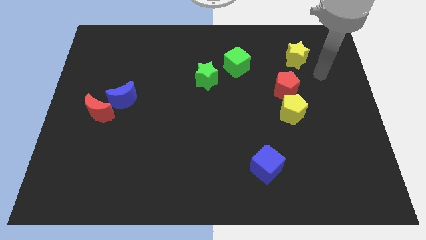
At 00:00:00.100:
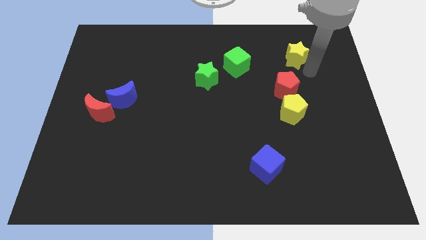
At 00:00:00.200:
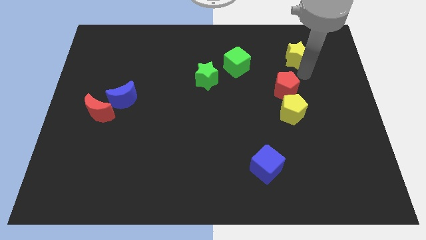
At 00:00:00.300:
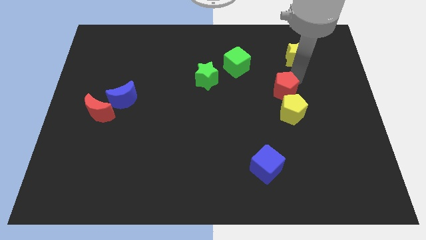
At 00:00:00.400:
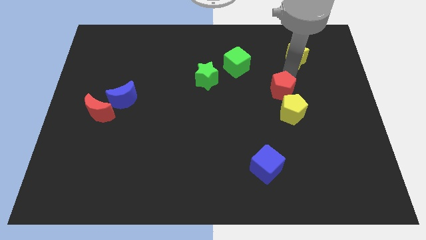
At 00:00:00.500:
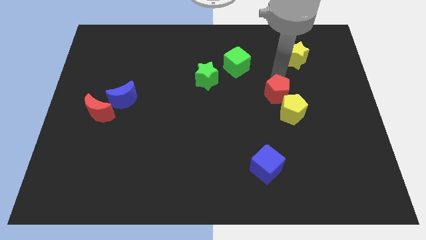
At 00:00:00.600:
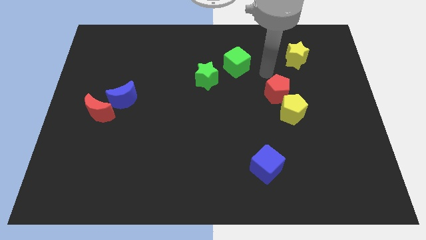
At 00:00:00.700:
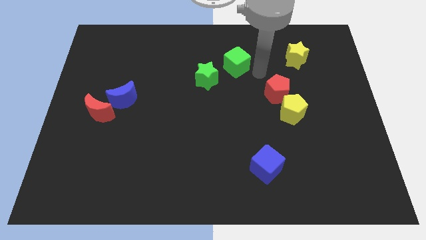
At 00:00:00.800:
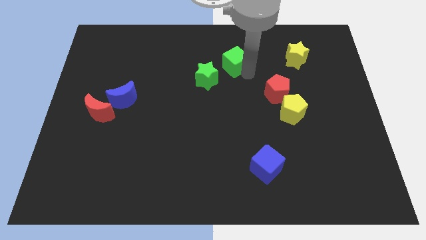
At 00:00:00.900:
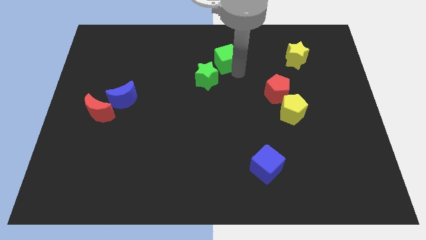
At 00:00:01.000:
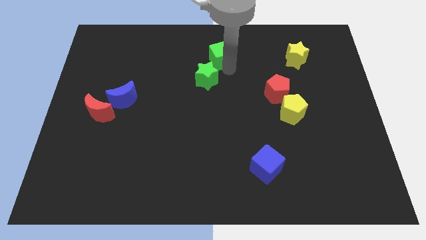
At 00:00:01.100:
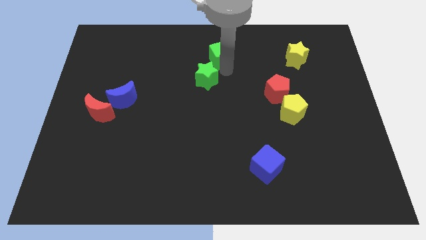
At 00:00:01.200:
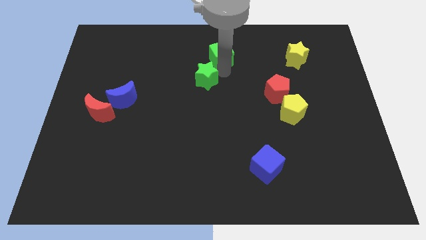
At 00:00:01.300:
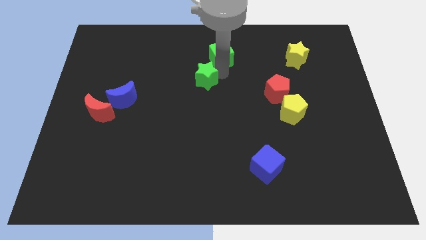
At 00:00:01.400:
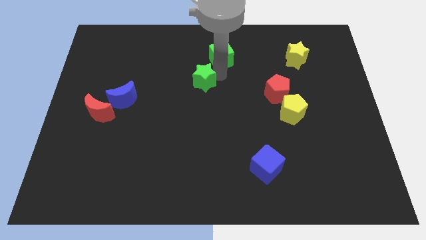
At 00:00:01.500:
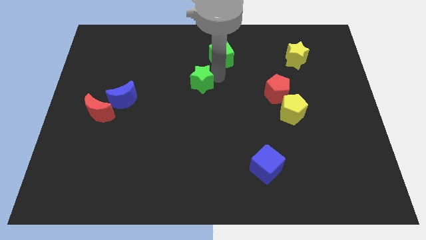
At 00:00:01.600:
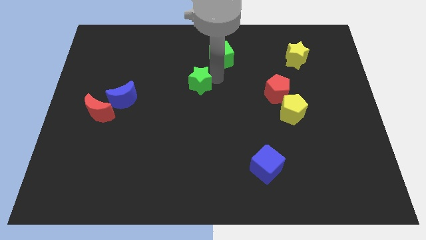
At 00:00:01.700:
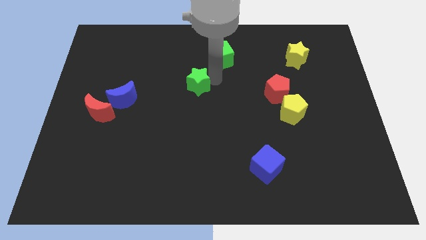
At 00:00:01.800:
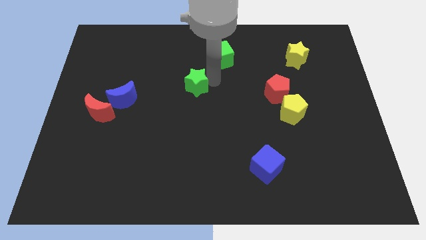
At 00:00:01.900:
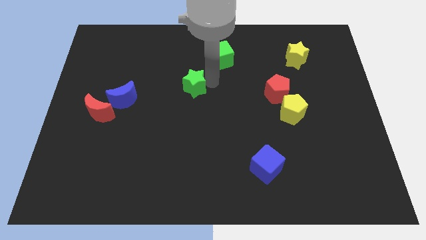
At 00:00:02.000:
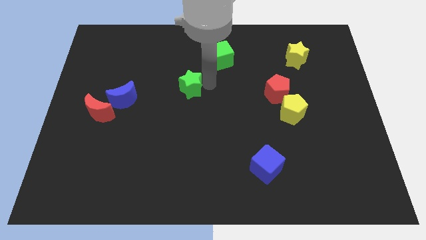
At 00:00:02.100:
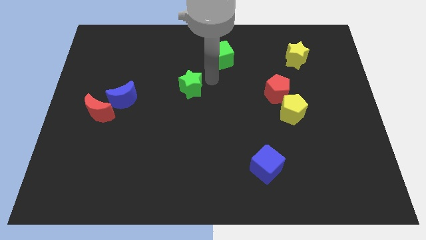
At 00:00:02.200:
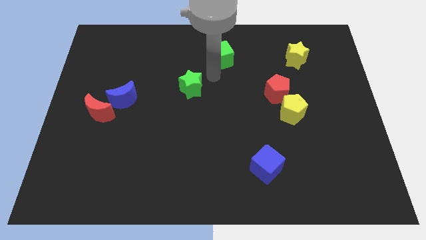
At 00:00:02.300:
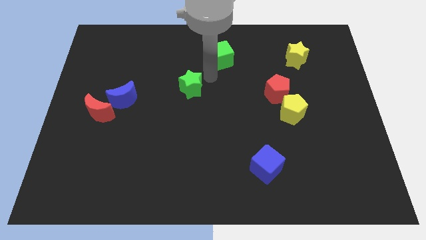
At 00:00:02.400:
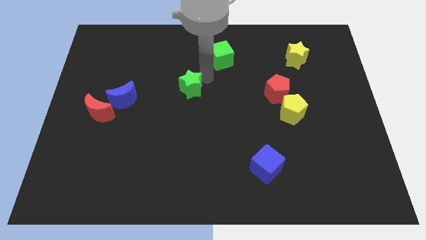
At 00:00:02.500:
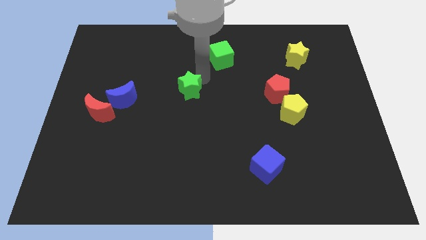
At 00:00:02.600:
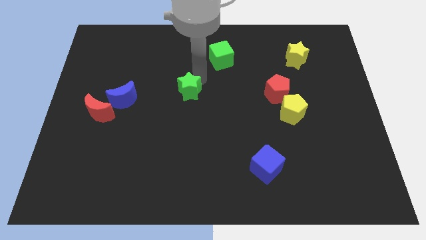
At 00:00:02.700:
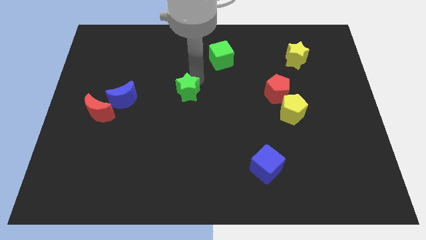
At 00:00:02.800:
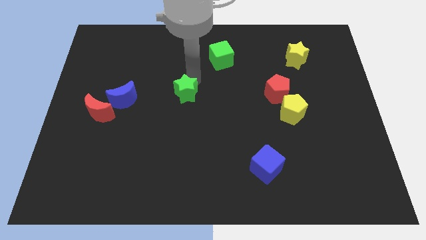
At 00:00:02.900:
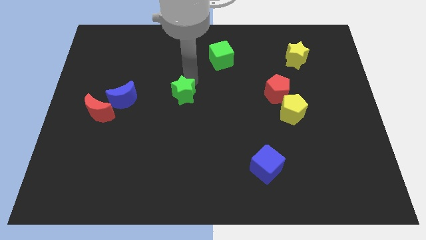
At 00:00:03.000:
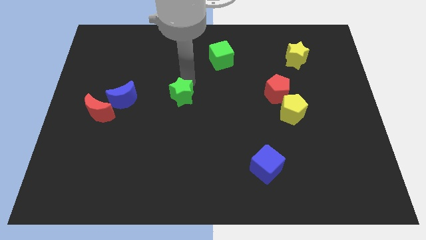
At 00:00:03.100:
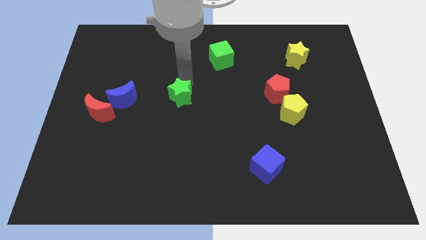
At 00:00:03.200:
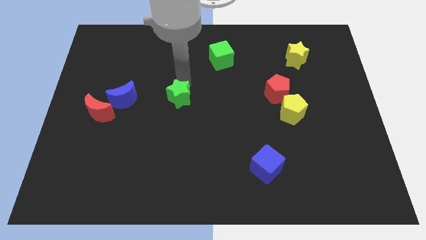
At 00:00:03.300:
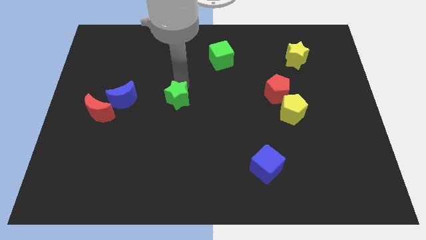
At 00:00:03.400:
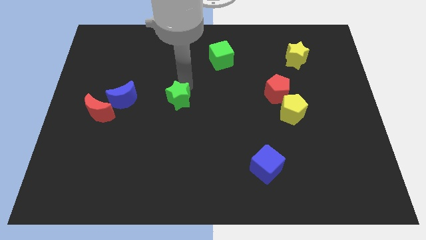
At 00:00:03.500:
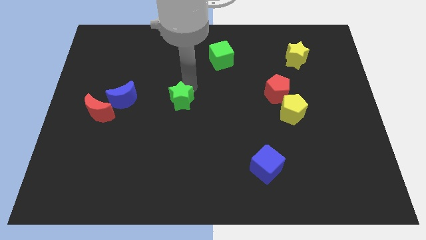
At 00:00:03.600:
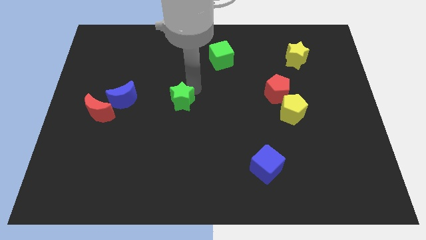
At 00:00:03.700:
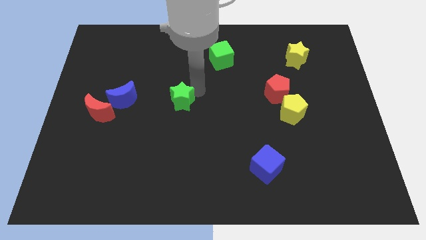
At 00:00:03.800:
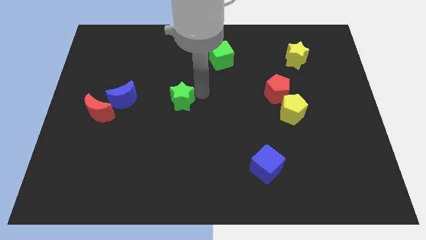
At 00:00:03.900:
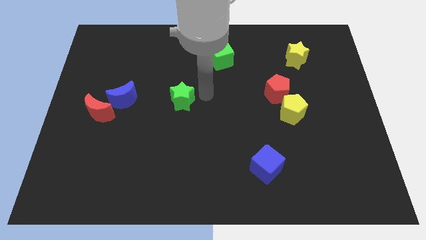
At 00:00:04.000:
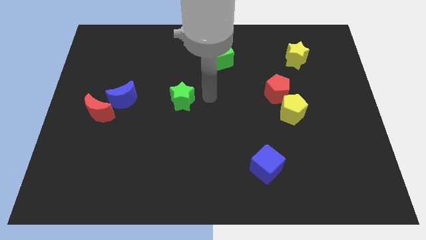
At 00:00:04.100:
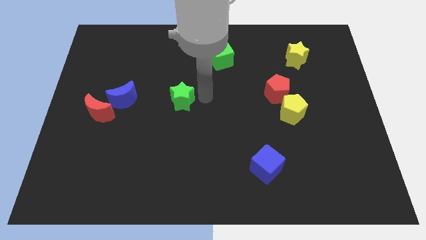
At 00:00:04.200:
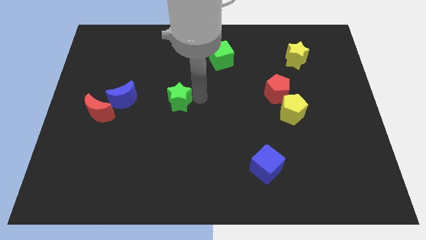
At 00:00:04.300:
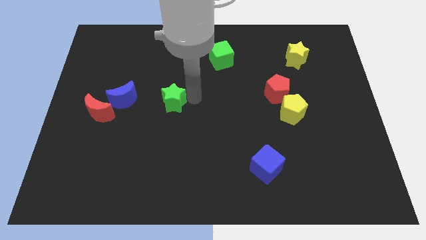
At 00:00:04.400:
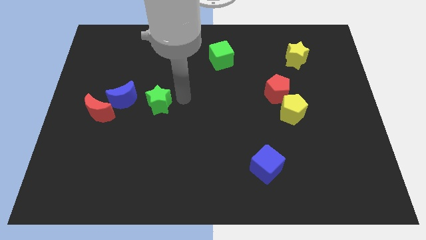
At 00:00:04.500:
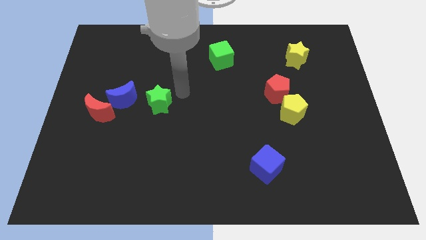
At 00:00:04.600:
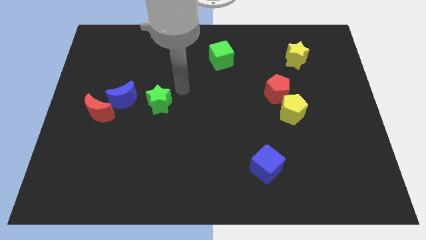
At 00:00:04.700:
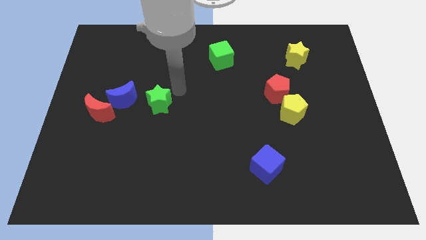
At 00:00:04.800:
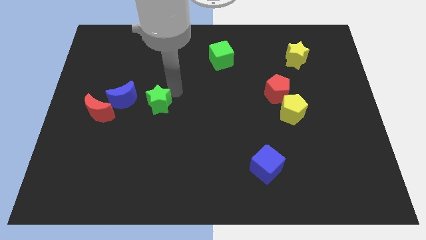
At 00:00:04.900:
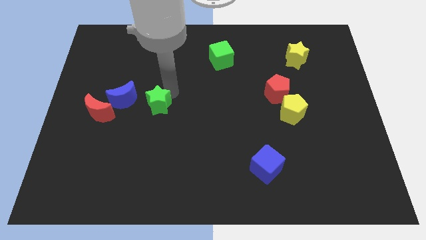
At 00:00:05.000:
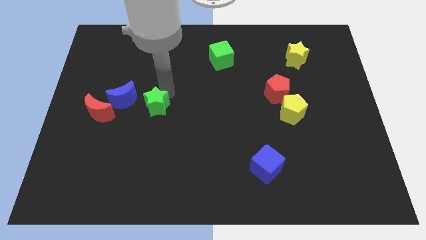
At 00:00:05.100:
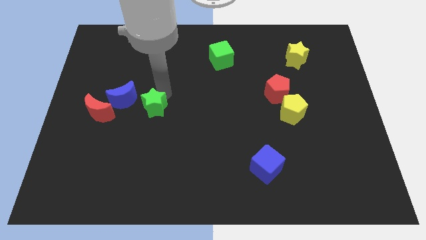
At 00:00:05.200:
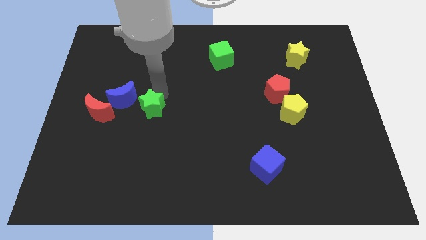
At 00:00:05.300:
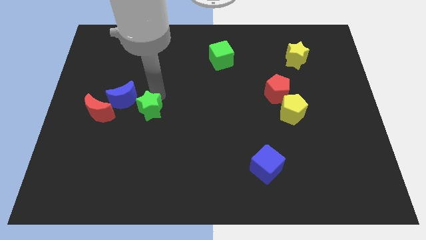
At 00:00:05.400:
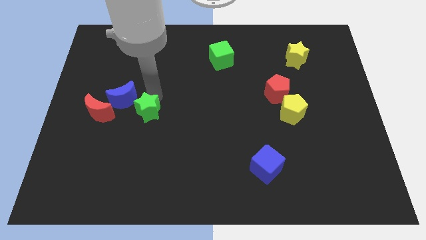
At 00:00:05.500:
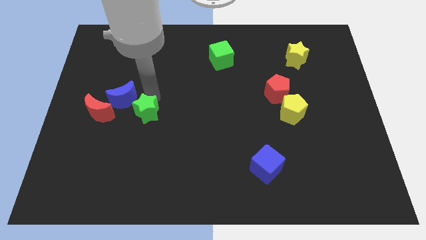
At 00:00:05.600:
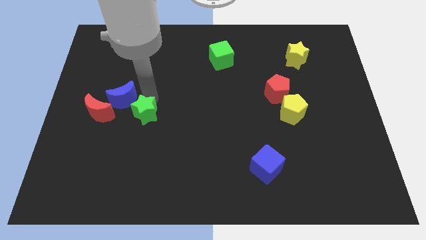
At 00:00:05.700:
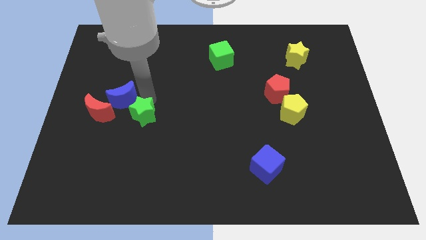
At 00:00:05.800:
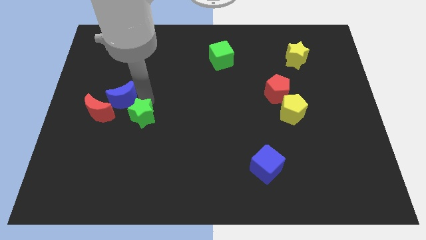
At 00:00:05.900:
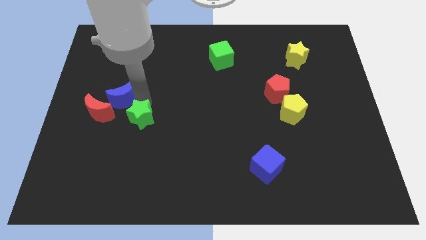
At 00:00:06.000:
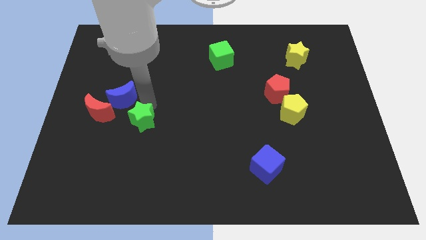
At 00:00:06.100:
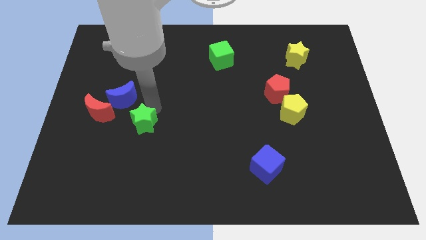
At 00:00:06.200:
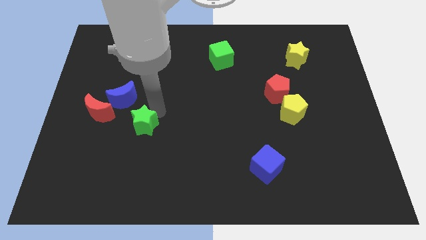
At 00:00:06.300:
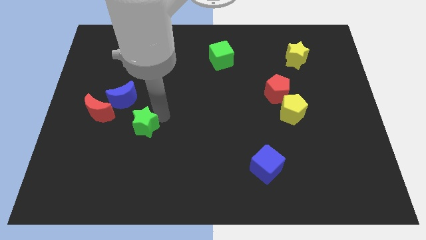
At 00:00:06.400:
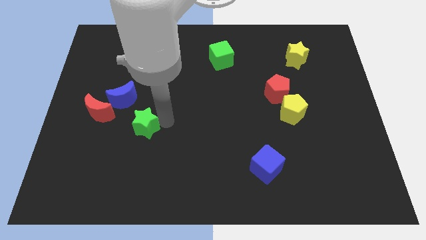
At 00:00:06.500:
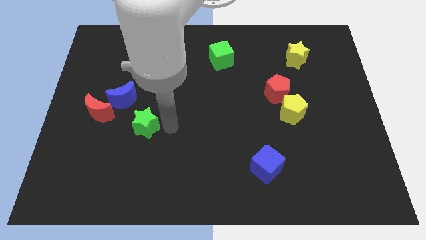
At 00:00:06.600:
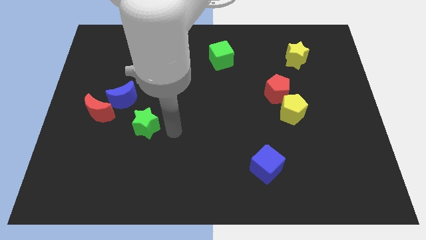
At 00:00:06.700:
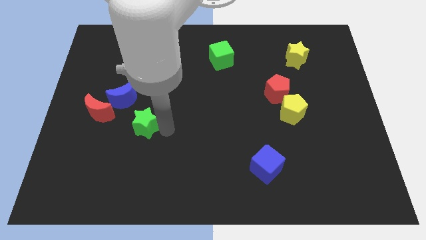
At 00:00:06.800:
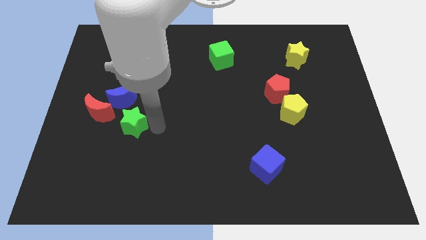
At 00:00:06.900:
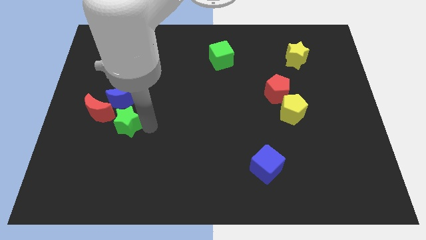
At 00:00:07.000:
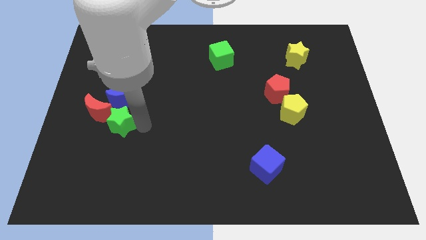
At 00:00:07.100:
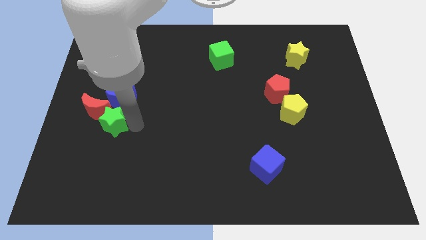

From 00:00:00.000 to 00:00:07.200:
slide the green star close to the red moon

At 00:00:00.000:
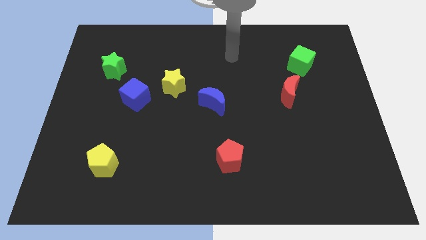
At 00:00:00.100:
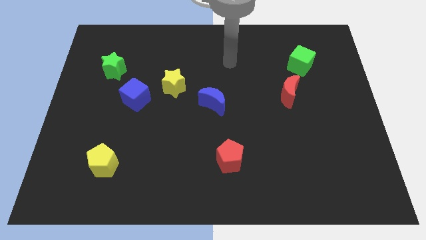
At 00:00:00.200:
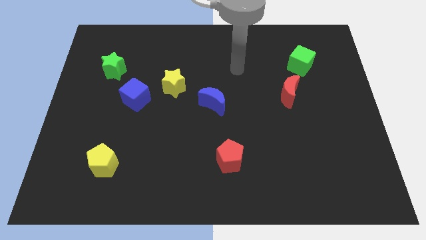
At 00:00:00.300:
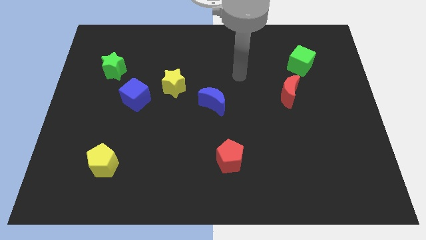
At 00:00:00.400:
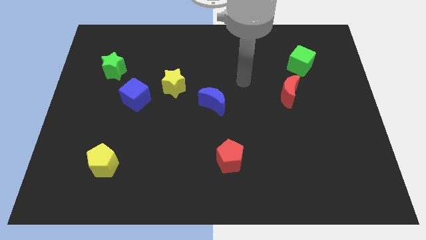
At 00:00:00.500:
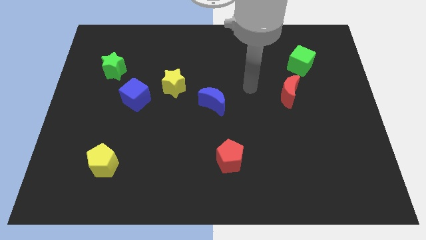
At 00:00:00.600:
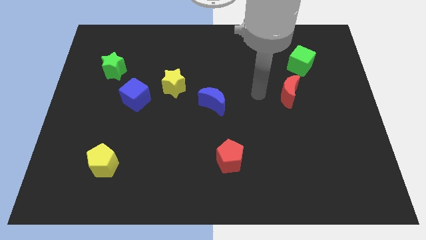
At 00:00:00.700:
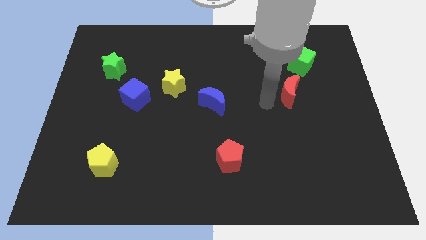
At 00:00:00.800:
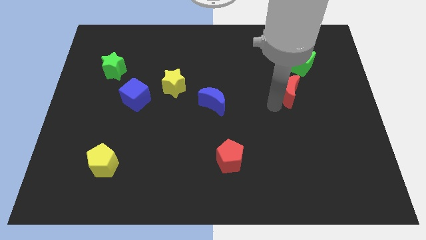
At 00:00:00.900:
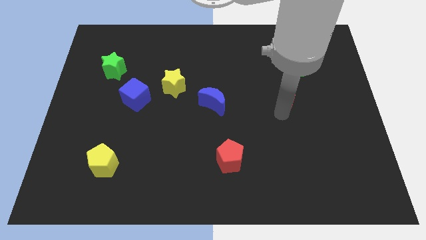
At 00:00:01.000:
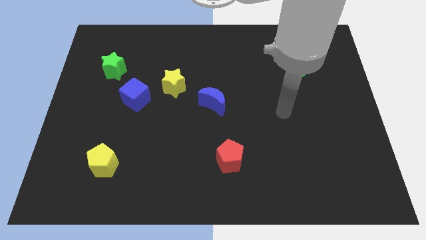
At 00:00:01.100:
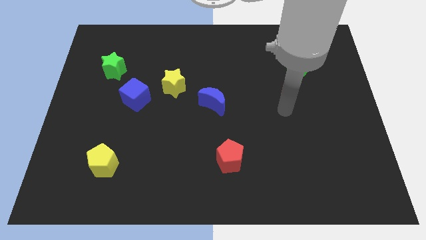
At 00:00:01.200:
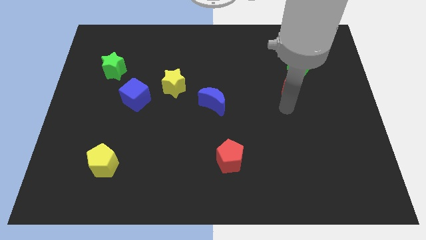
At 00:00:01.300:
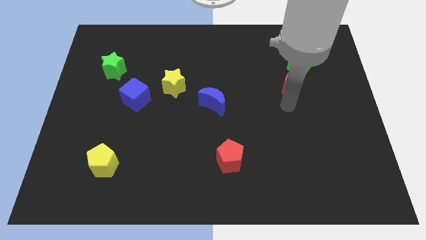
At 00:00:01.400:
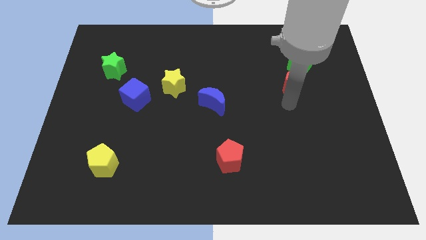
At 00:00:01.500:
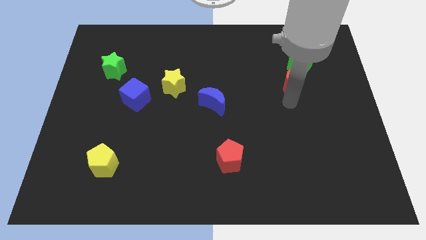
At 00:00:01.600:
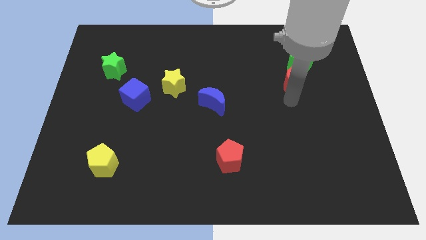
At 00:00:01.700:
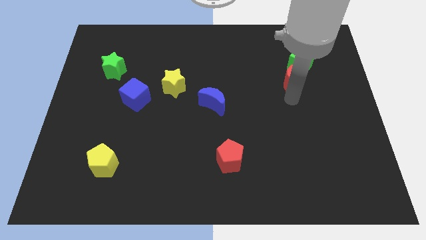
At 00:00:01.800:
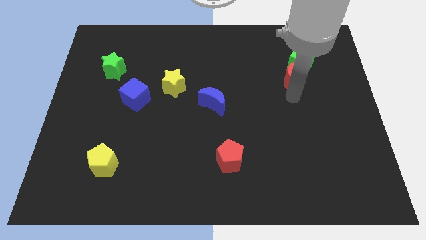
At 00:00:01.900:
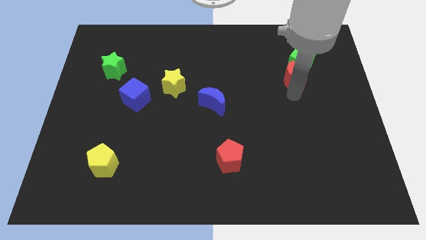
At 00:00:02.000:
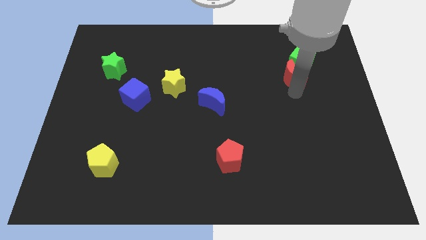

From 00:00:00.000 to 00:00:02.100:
move the red moon next to the green cube
